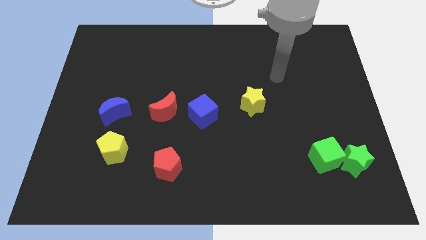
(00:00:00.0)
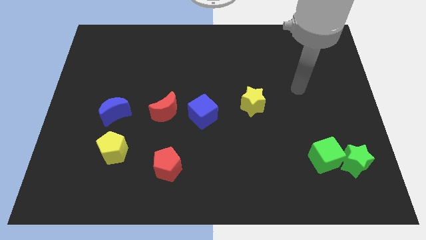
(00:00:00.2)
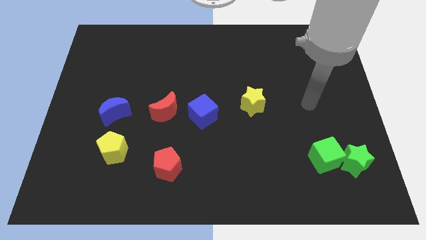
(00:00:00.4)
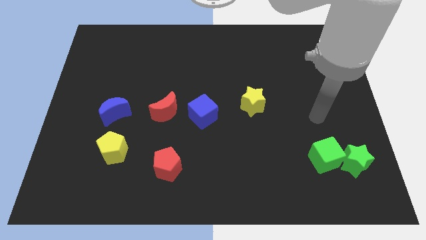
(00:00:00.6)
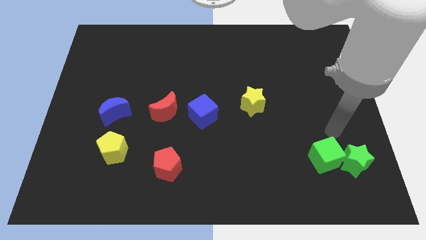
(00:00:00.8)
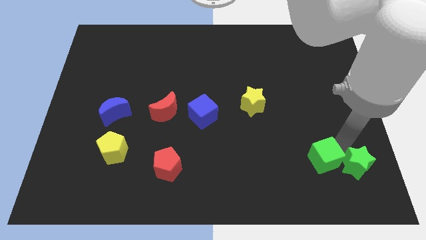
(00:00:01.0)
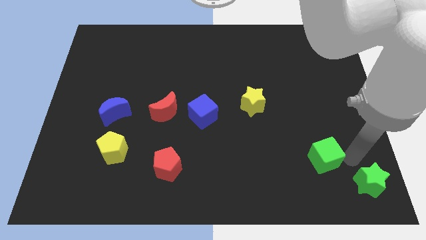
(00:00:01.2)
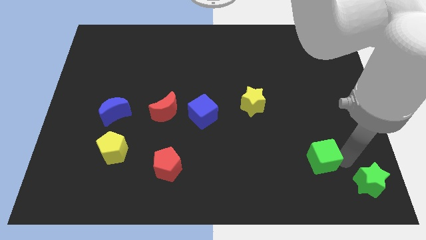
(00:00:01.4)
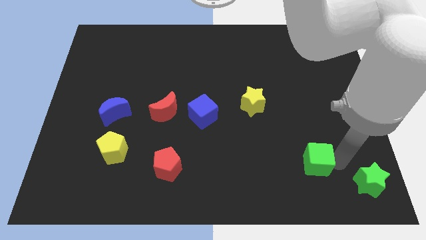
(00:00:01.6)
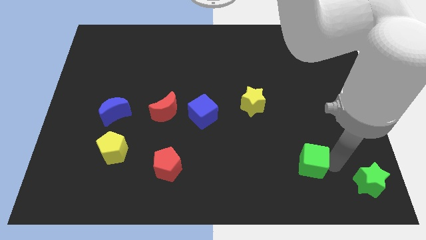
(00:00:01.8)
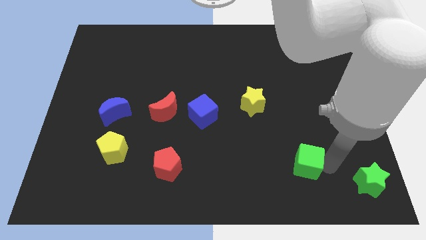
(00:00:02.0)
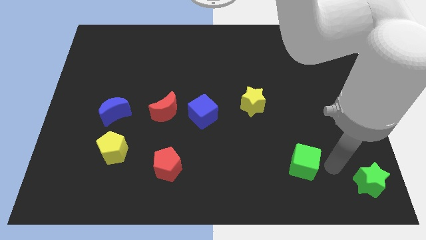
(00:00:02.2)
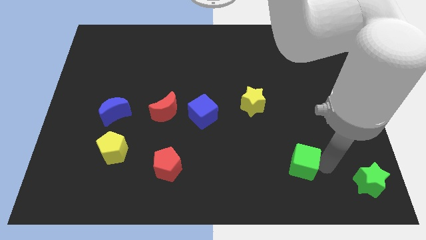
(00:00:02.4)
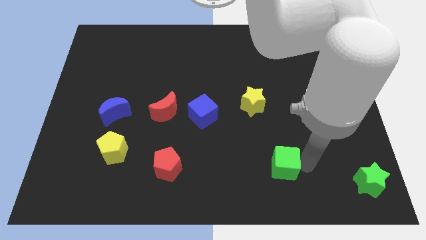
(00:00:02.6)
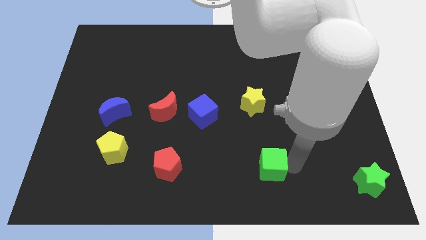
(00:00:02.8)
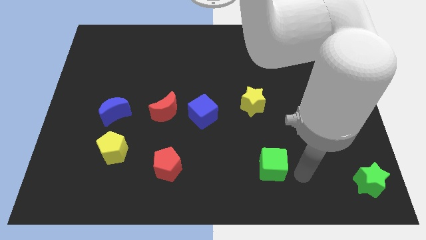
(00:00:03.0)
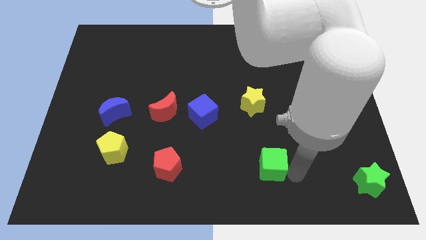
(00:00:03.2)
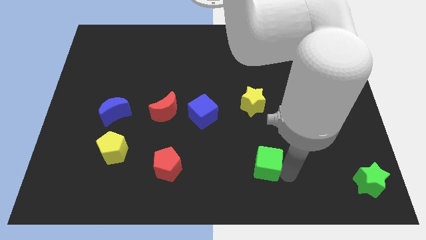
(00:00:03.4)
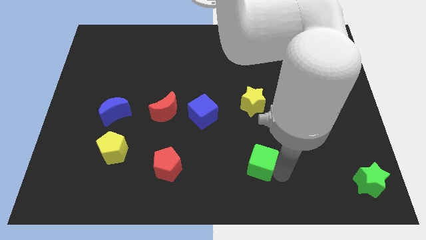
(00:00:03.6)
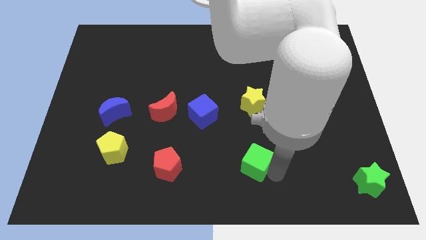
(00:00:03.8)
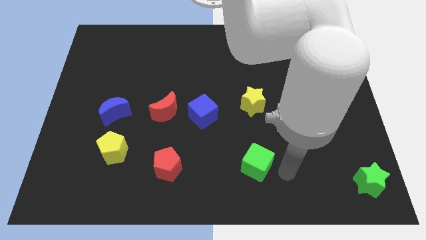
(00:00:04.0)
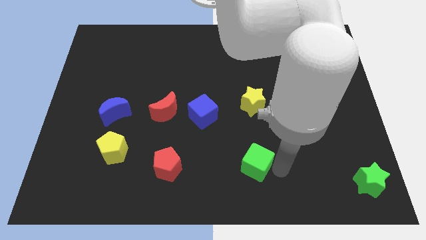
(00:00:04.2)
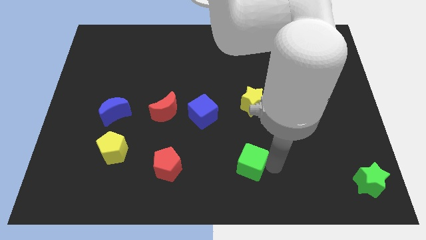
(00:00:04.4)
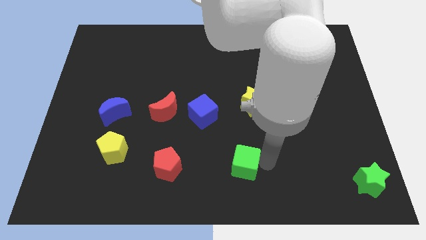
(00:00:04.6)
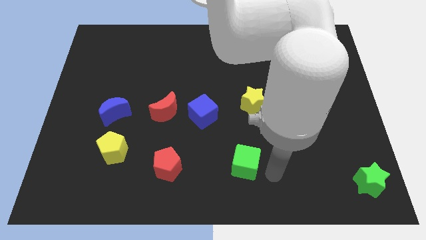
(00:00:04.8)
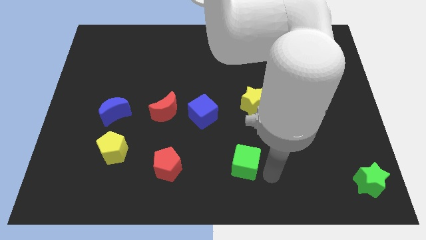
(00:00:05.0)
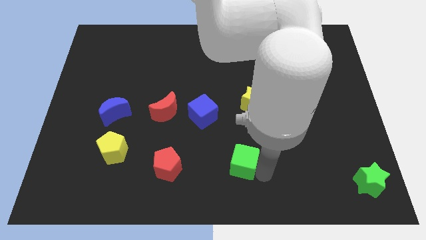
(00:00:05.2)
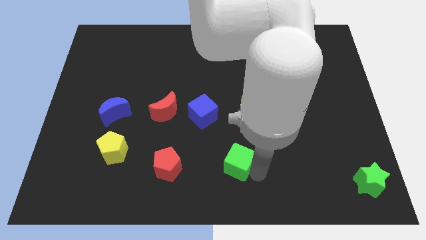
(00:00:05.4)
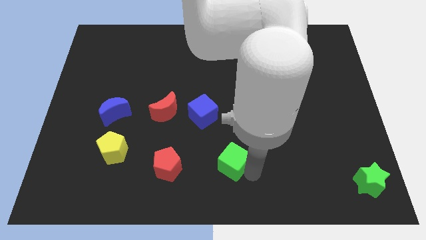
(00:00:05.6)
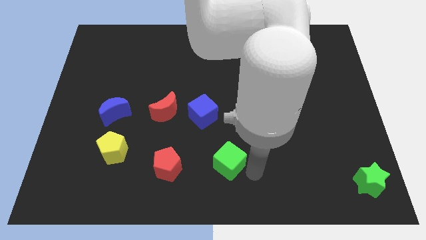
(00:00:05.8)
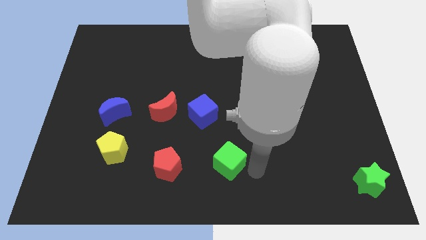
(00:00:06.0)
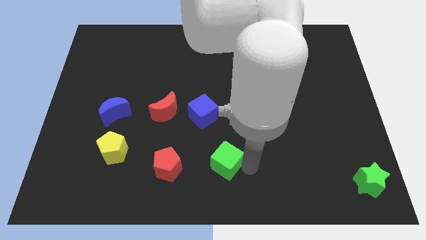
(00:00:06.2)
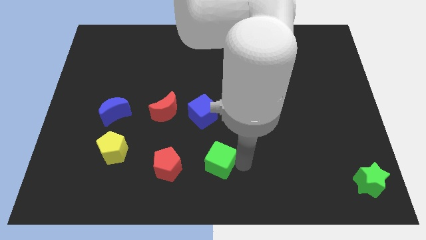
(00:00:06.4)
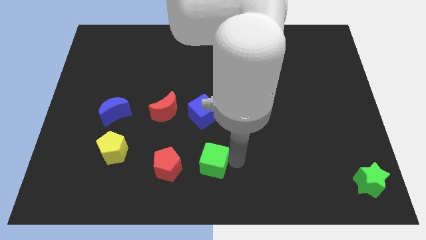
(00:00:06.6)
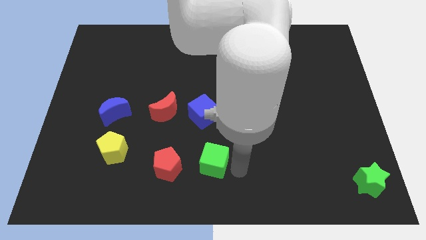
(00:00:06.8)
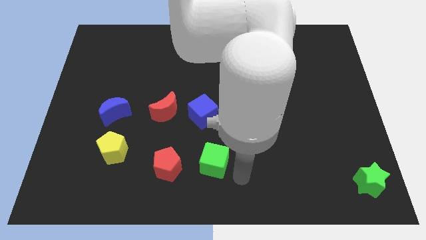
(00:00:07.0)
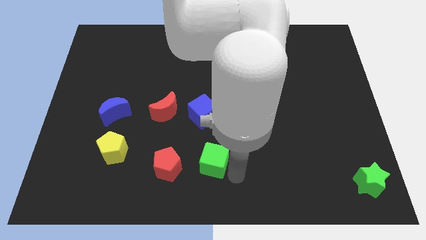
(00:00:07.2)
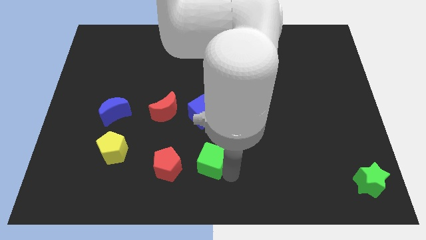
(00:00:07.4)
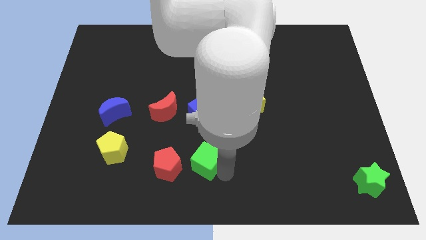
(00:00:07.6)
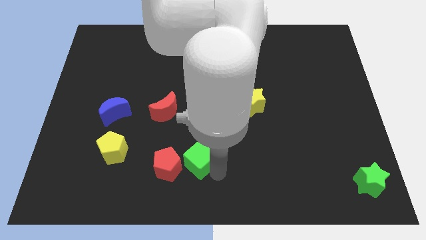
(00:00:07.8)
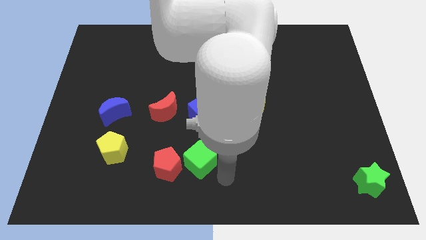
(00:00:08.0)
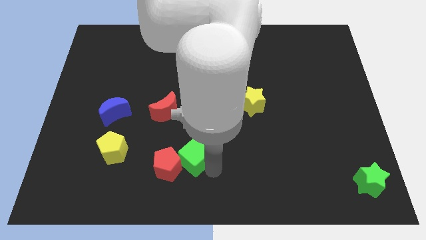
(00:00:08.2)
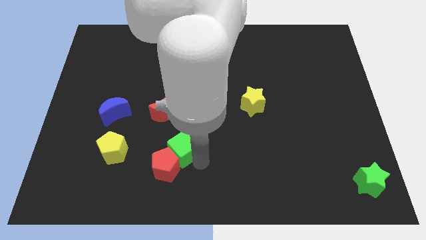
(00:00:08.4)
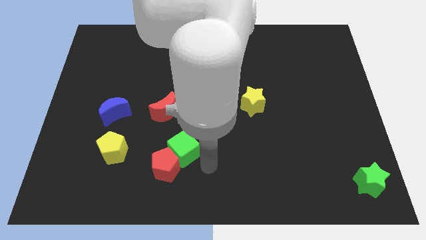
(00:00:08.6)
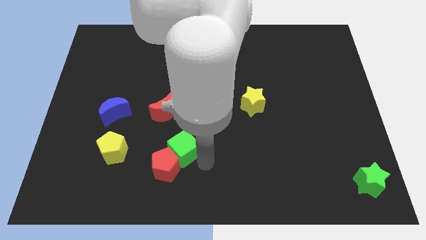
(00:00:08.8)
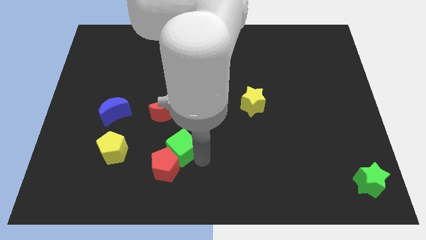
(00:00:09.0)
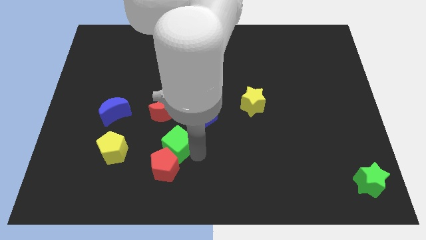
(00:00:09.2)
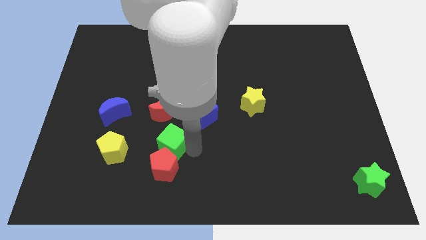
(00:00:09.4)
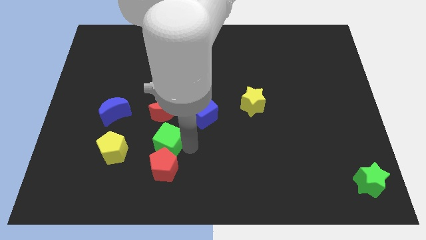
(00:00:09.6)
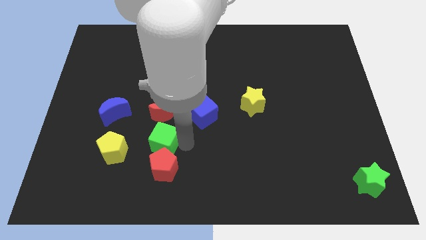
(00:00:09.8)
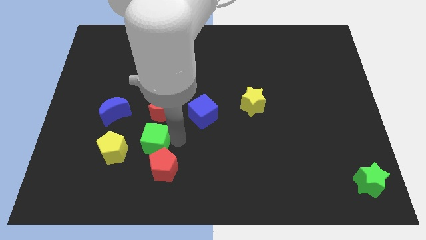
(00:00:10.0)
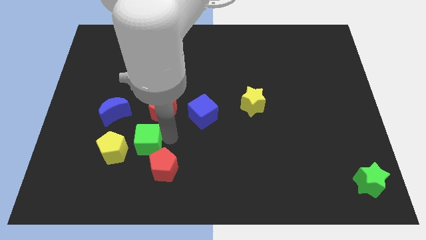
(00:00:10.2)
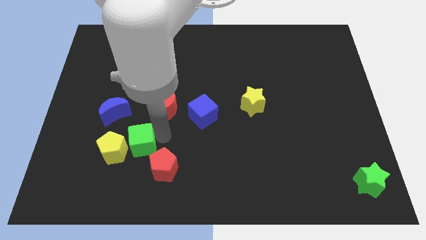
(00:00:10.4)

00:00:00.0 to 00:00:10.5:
push the green cube next to the yellow pentagon
